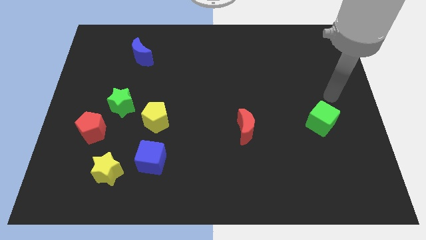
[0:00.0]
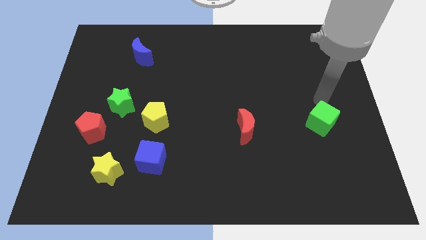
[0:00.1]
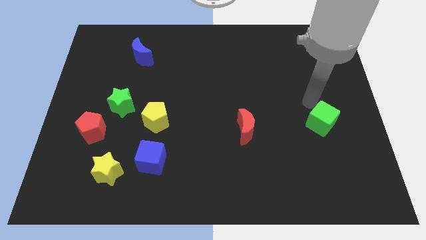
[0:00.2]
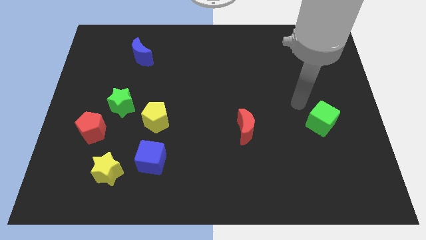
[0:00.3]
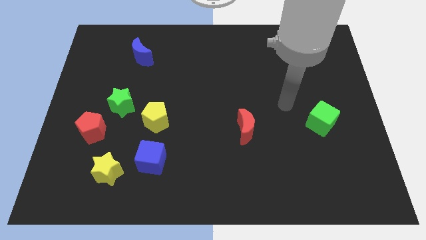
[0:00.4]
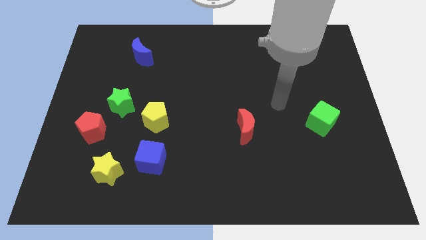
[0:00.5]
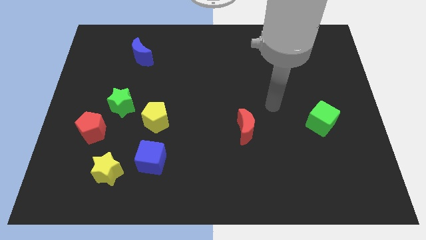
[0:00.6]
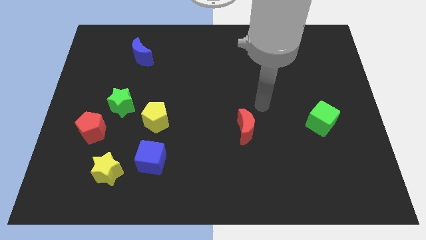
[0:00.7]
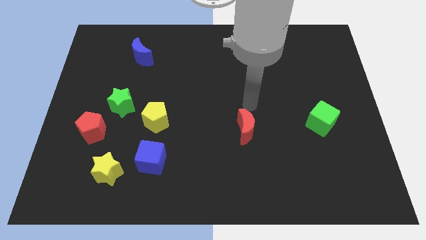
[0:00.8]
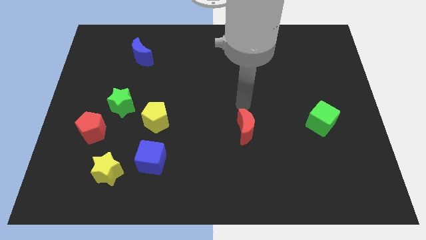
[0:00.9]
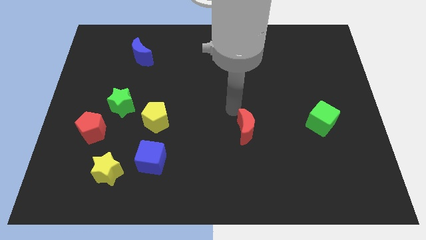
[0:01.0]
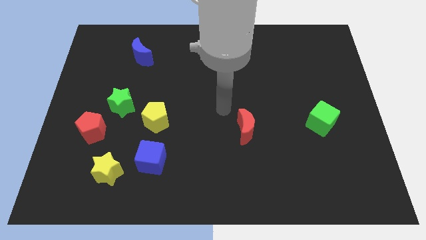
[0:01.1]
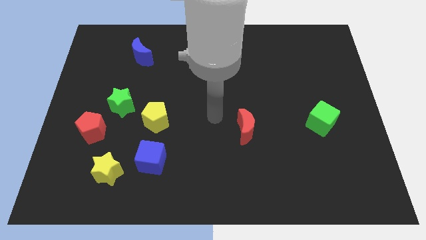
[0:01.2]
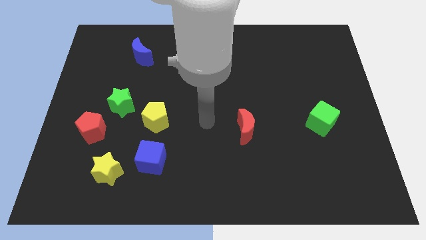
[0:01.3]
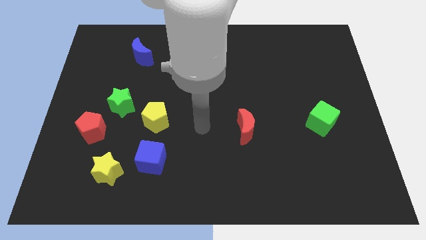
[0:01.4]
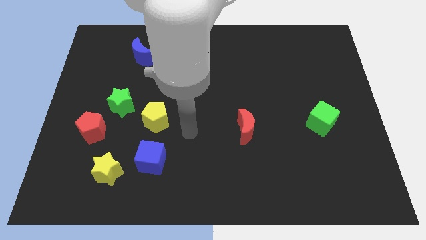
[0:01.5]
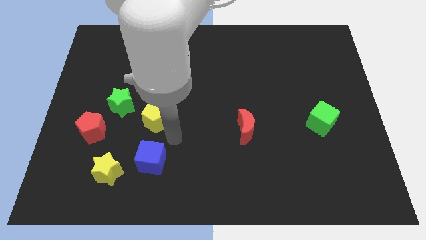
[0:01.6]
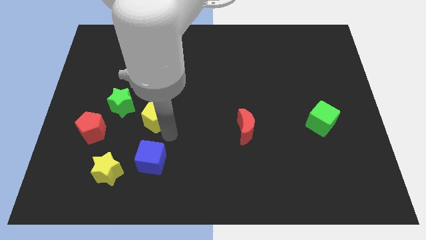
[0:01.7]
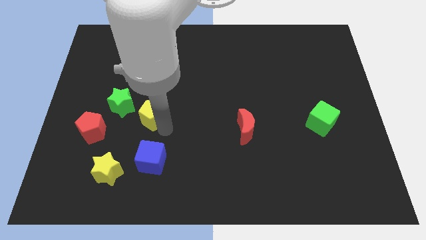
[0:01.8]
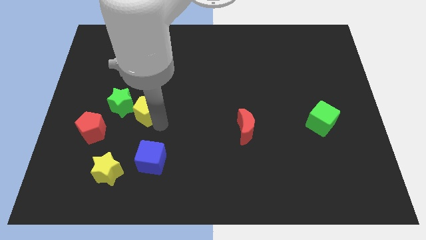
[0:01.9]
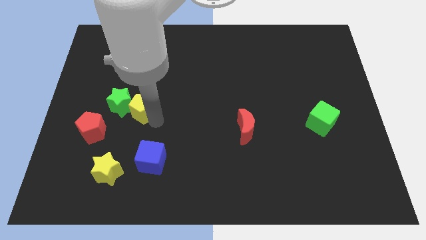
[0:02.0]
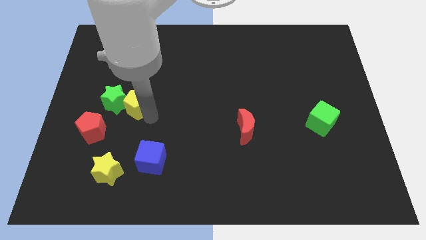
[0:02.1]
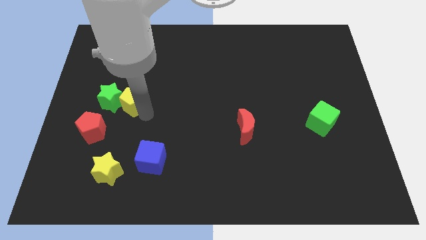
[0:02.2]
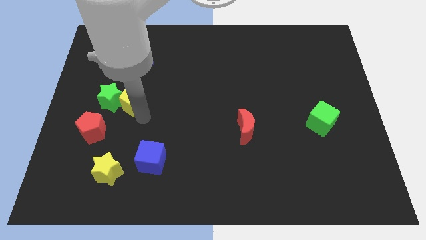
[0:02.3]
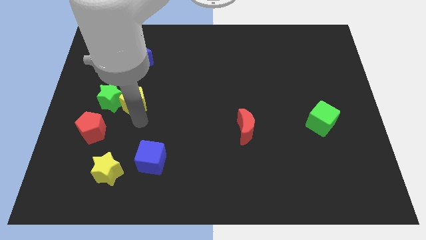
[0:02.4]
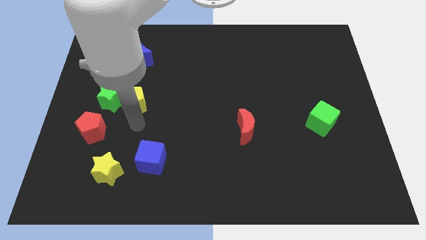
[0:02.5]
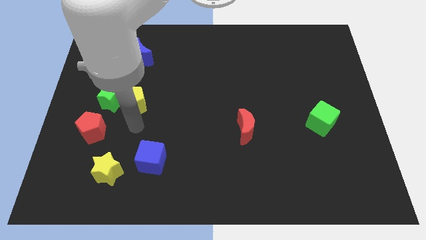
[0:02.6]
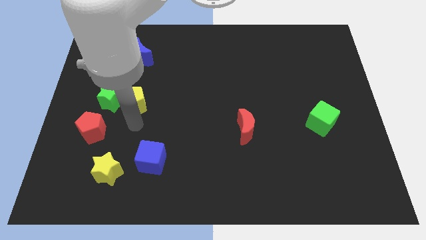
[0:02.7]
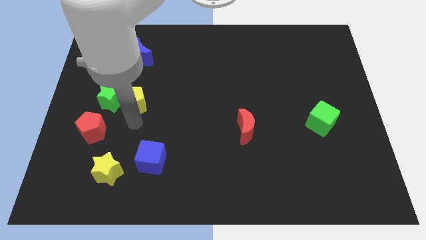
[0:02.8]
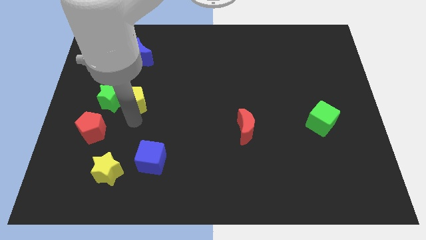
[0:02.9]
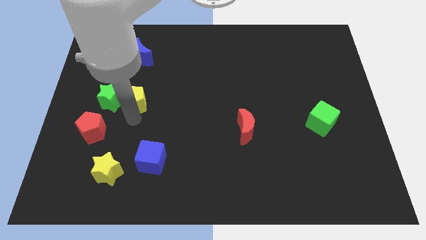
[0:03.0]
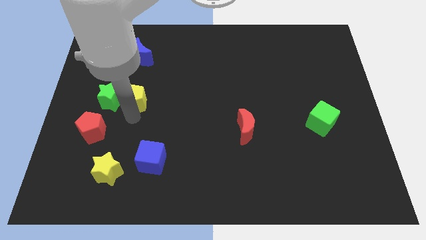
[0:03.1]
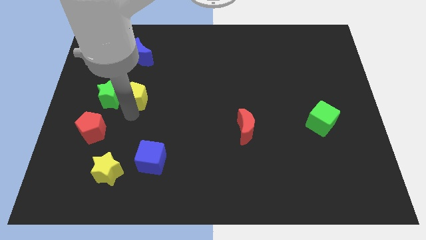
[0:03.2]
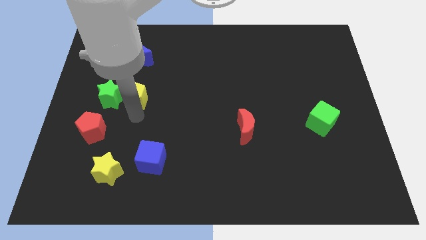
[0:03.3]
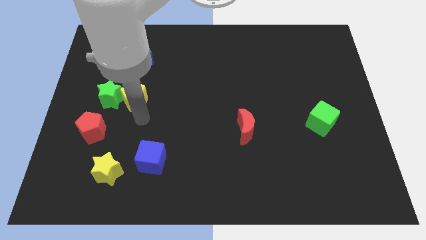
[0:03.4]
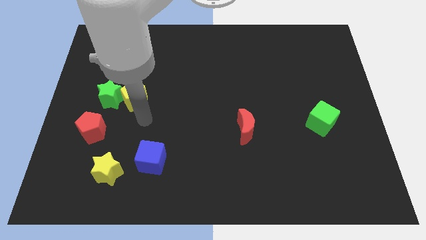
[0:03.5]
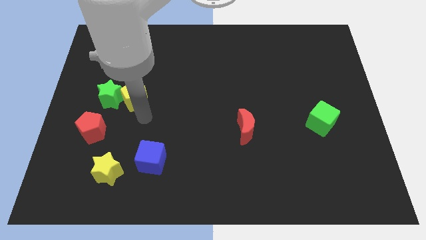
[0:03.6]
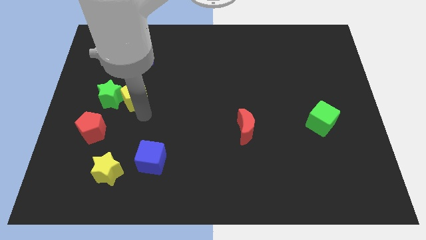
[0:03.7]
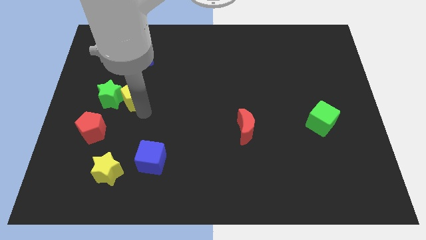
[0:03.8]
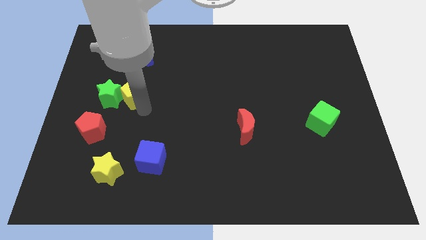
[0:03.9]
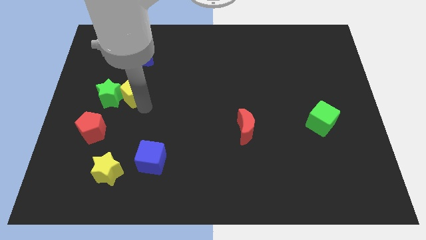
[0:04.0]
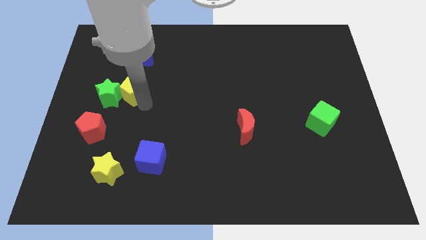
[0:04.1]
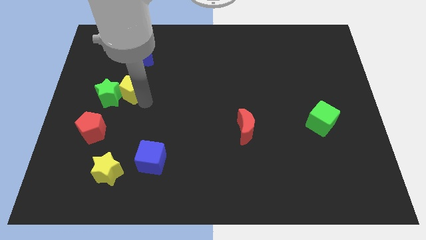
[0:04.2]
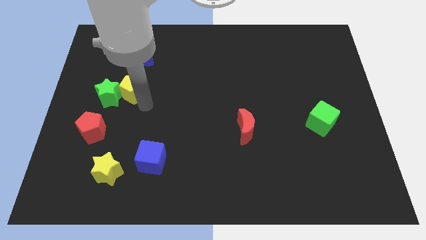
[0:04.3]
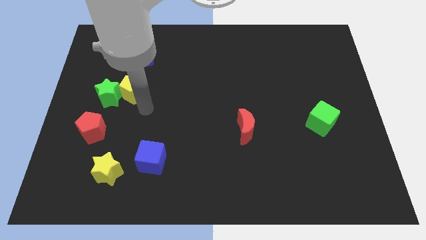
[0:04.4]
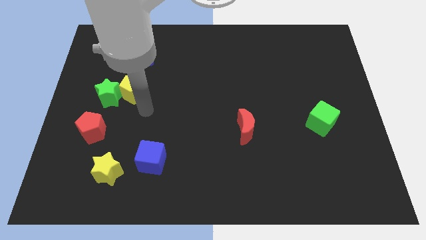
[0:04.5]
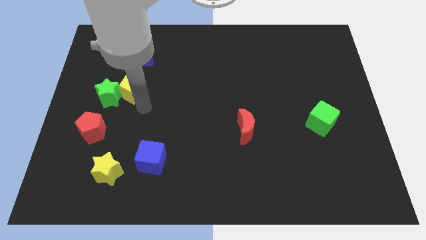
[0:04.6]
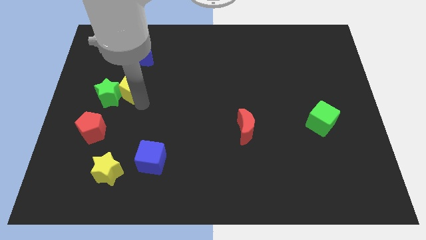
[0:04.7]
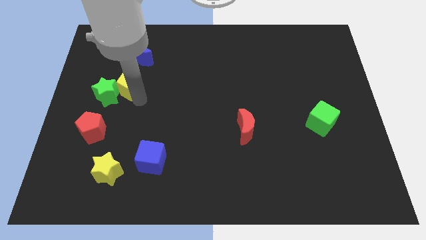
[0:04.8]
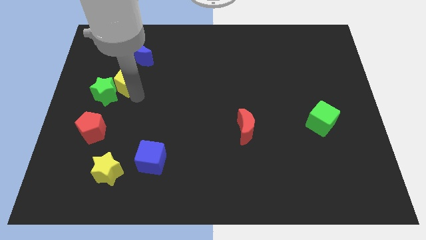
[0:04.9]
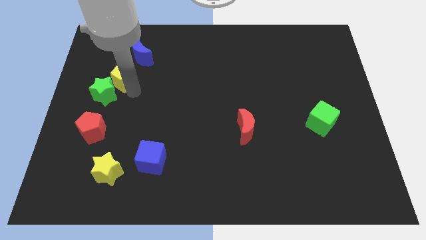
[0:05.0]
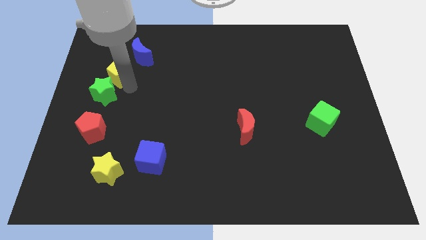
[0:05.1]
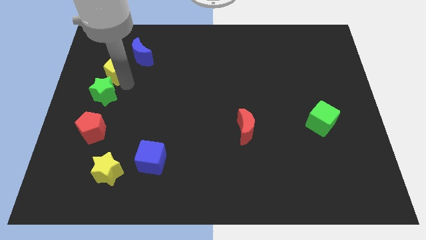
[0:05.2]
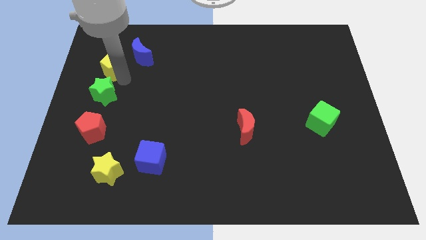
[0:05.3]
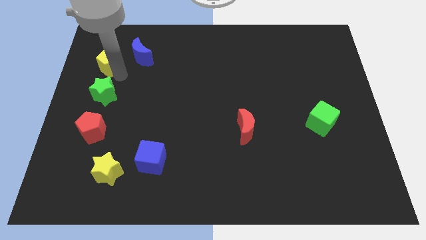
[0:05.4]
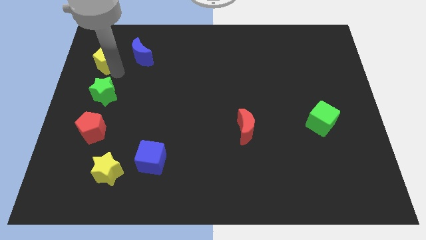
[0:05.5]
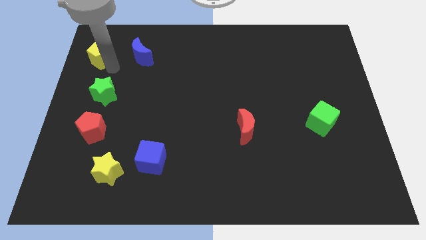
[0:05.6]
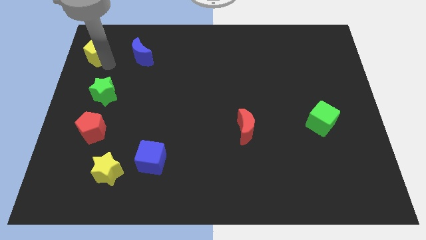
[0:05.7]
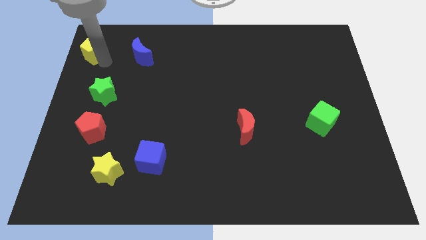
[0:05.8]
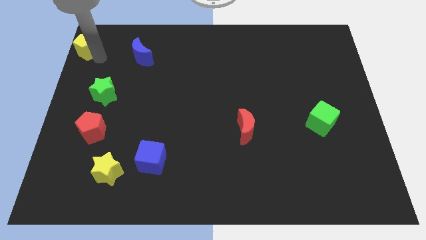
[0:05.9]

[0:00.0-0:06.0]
push the yellow pentagon to the upper left corner

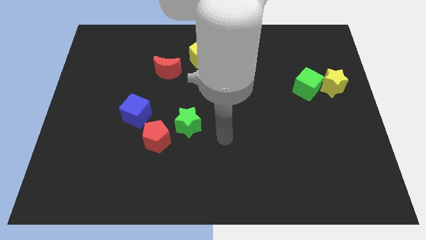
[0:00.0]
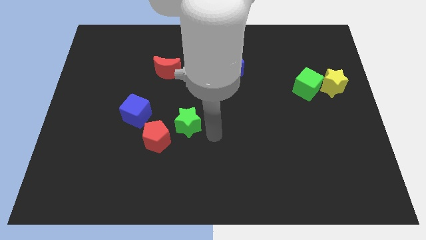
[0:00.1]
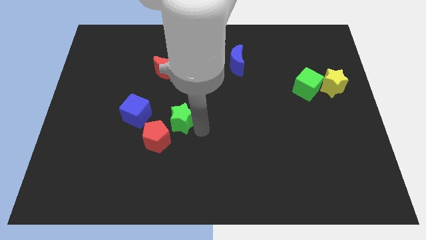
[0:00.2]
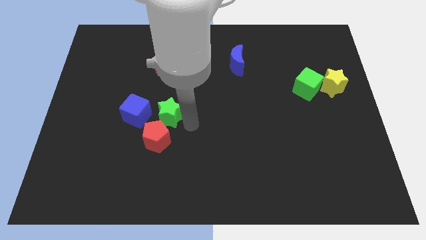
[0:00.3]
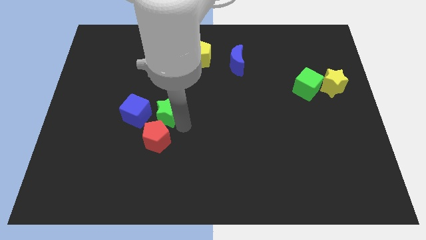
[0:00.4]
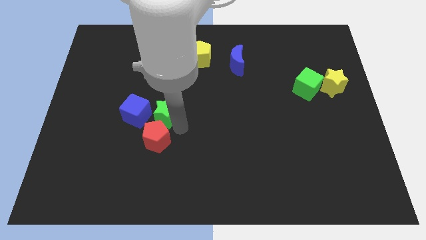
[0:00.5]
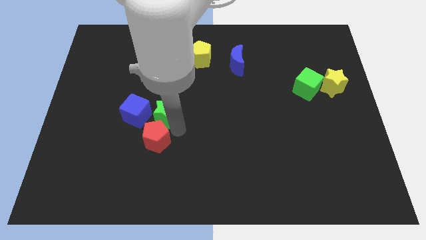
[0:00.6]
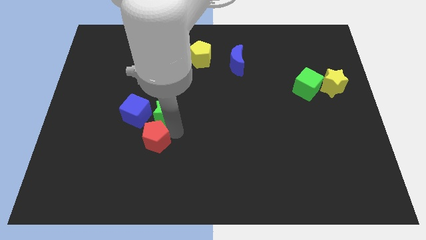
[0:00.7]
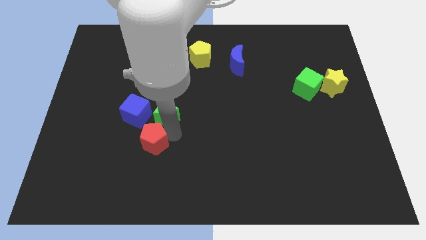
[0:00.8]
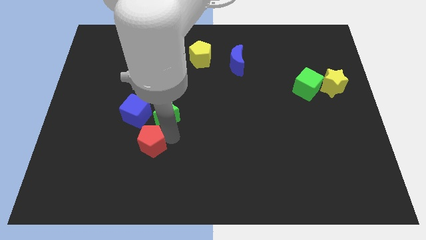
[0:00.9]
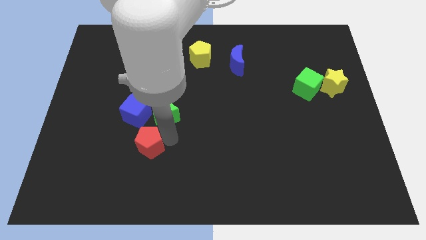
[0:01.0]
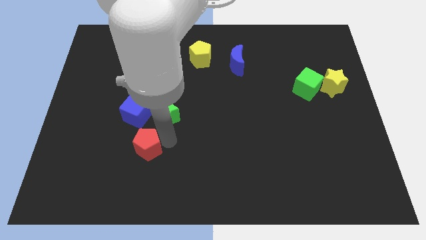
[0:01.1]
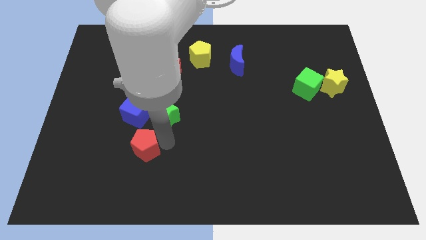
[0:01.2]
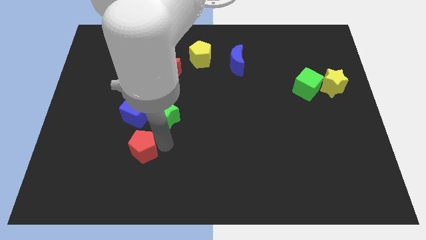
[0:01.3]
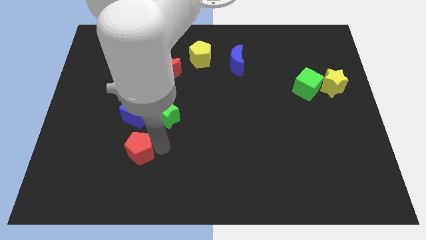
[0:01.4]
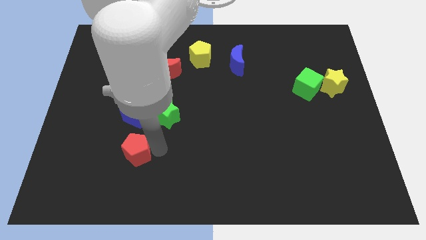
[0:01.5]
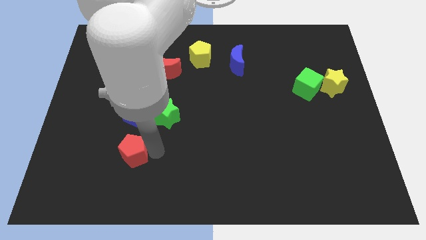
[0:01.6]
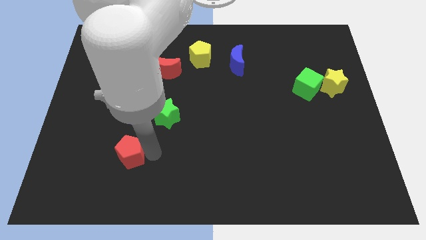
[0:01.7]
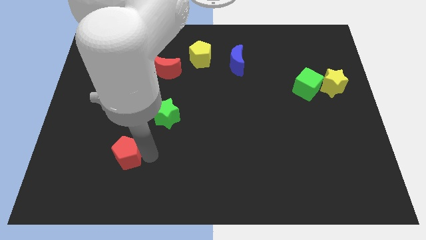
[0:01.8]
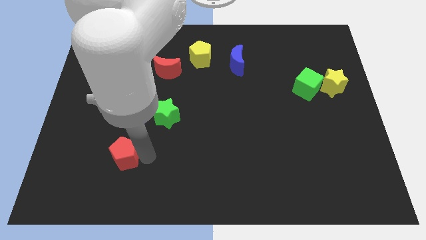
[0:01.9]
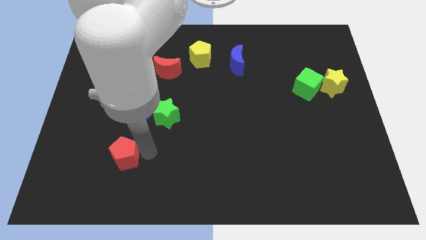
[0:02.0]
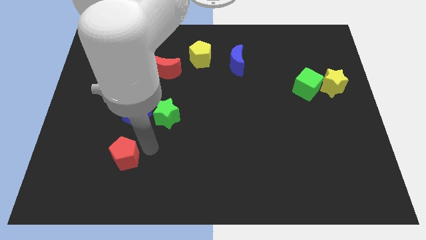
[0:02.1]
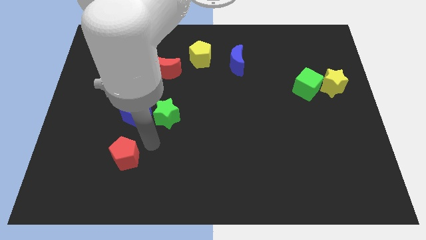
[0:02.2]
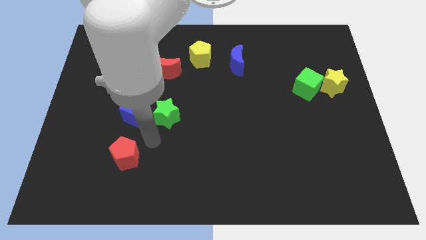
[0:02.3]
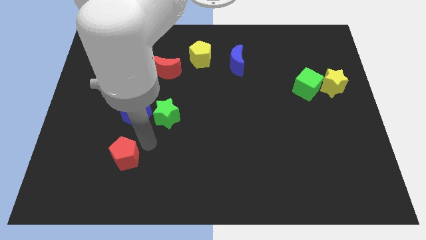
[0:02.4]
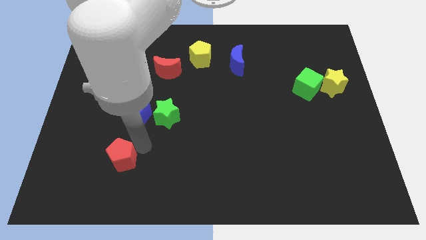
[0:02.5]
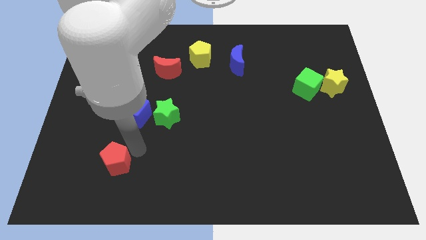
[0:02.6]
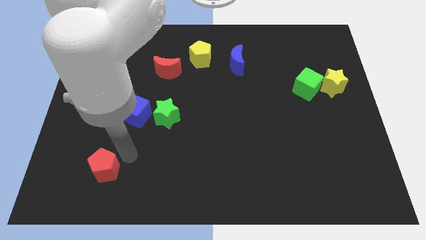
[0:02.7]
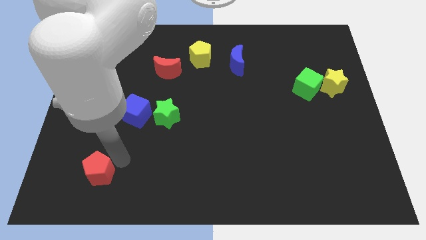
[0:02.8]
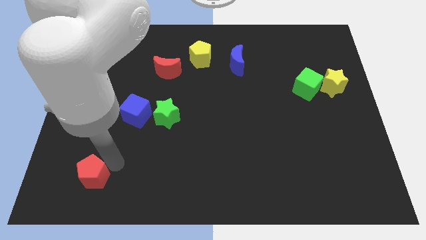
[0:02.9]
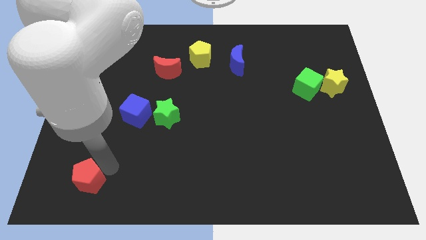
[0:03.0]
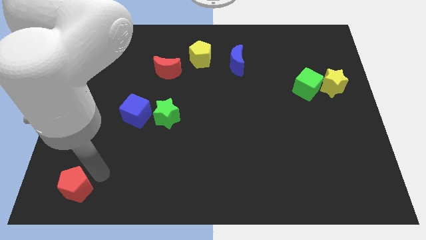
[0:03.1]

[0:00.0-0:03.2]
push the red pentagon to the lower left corner
